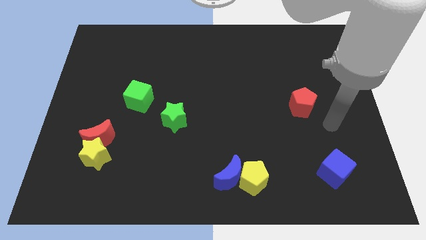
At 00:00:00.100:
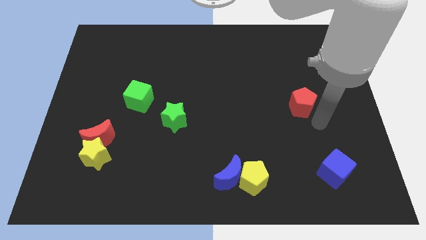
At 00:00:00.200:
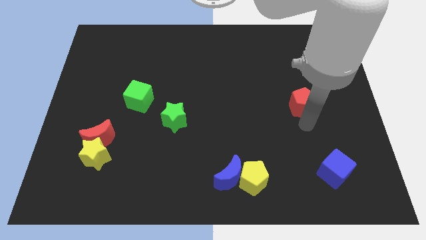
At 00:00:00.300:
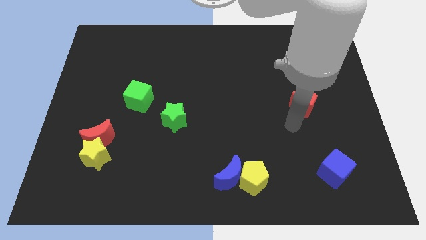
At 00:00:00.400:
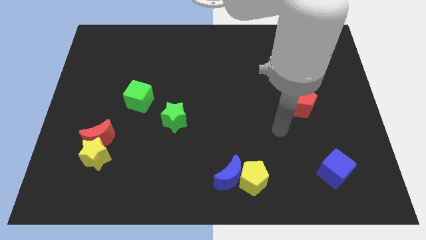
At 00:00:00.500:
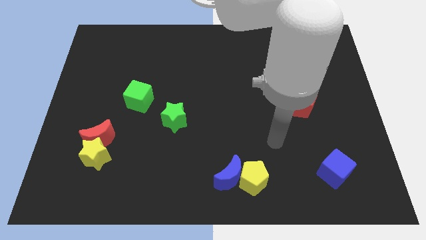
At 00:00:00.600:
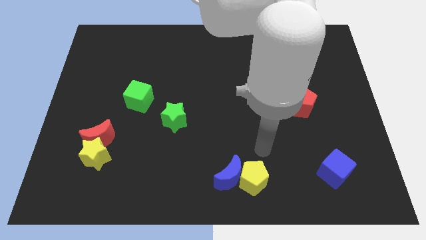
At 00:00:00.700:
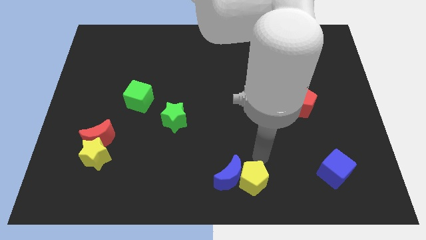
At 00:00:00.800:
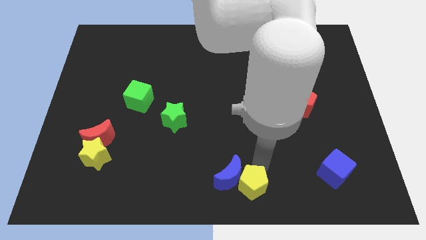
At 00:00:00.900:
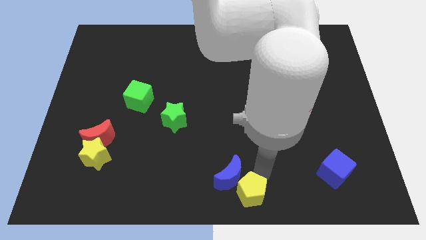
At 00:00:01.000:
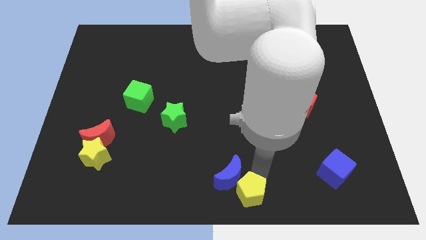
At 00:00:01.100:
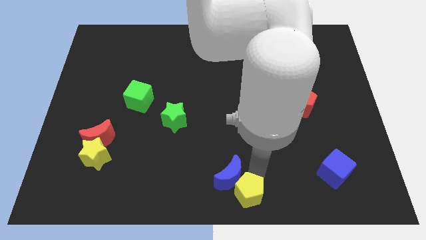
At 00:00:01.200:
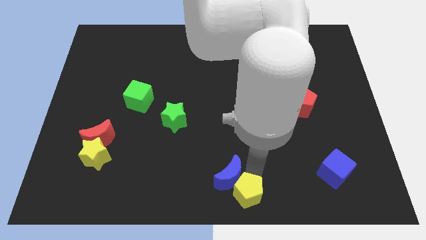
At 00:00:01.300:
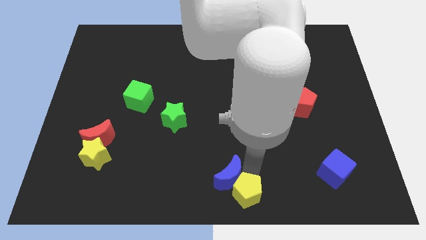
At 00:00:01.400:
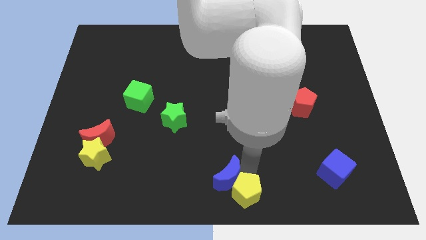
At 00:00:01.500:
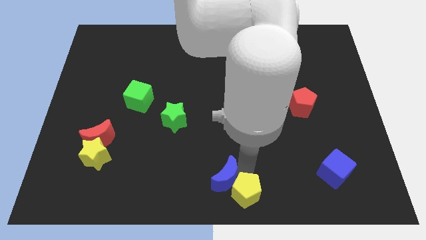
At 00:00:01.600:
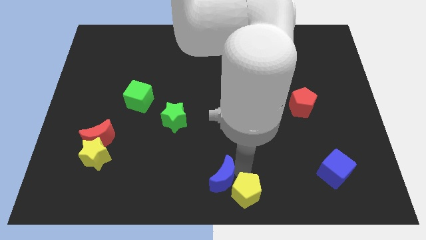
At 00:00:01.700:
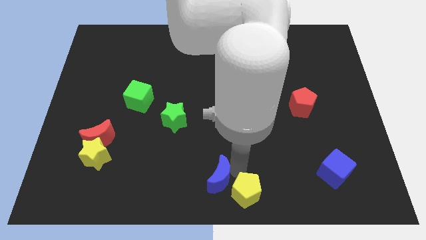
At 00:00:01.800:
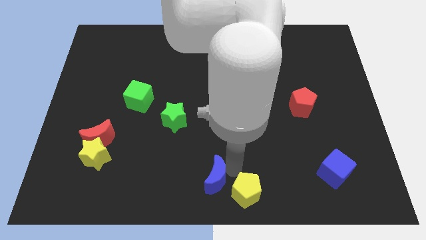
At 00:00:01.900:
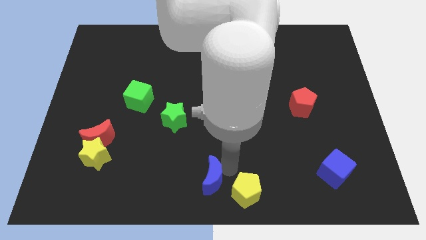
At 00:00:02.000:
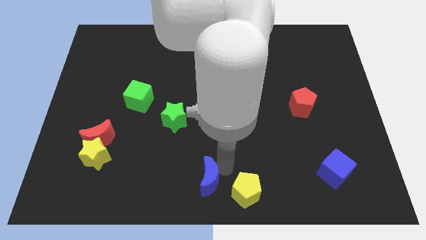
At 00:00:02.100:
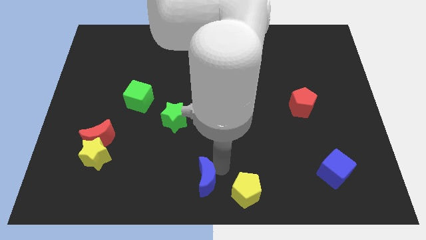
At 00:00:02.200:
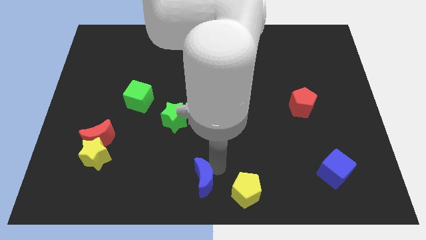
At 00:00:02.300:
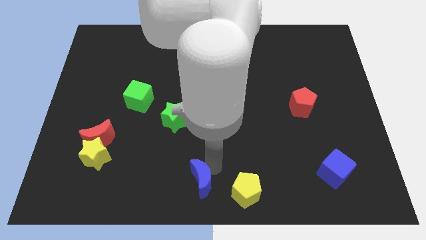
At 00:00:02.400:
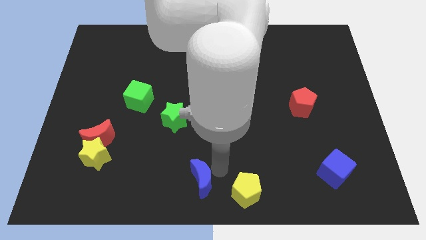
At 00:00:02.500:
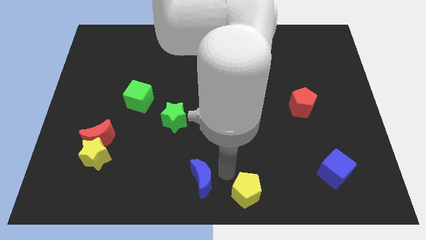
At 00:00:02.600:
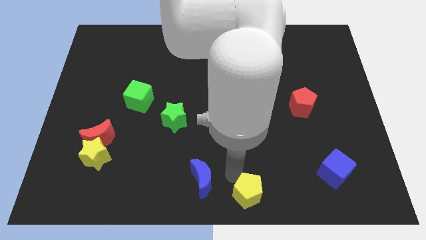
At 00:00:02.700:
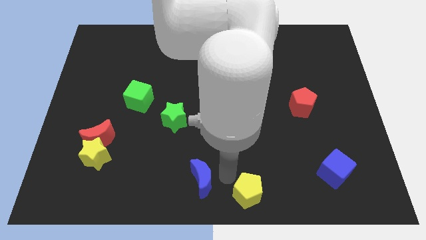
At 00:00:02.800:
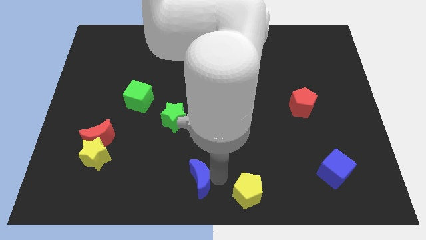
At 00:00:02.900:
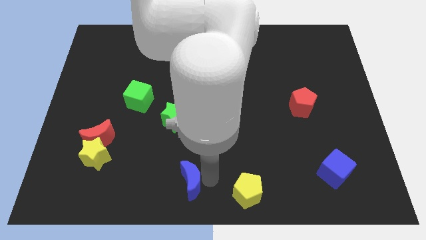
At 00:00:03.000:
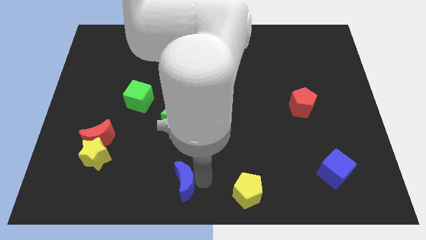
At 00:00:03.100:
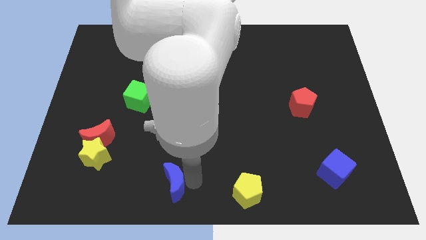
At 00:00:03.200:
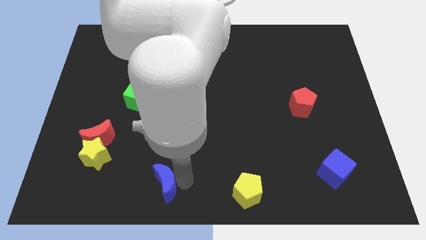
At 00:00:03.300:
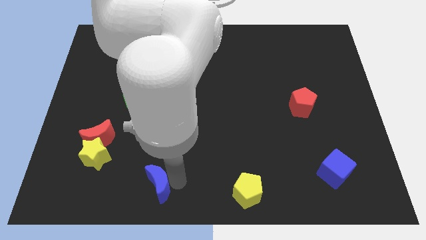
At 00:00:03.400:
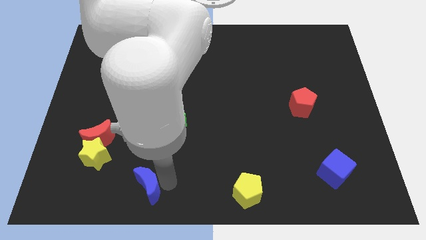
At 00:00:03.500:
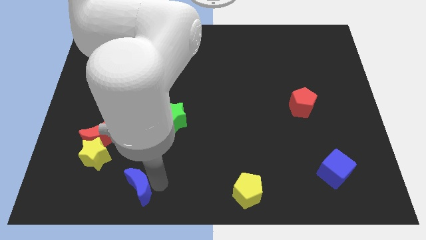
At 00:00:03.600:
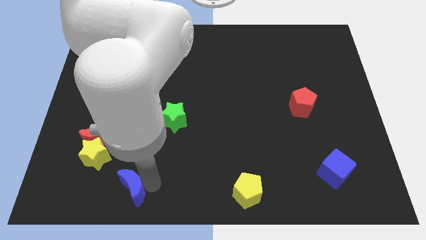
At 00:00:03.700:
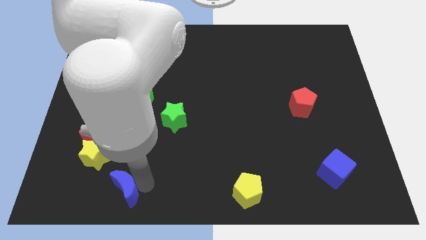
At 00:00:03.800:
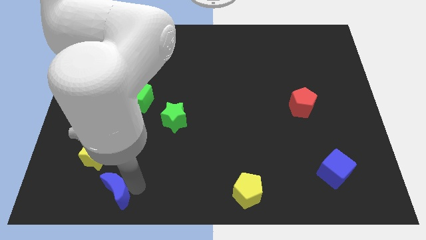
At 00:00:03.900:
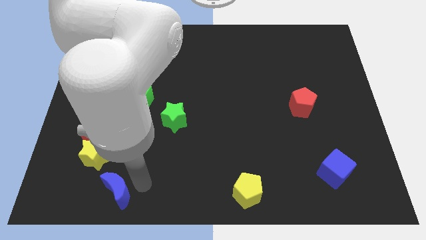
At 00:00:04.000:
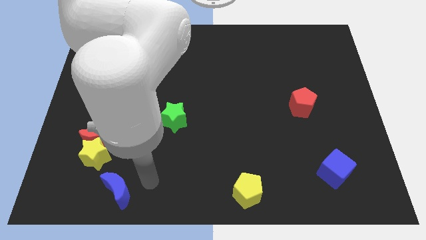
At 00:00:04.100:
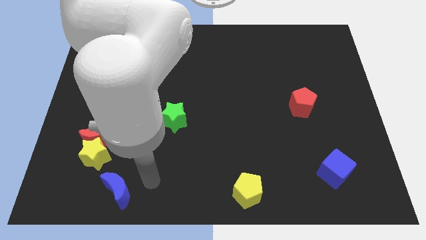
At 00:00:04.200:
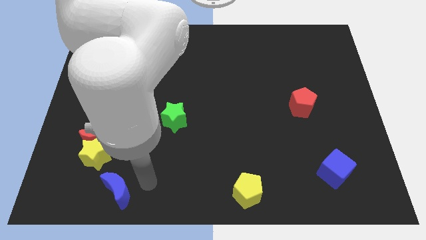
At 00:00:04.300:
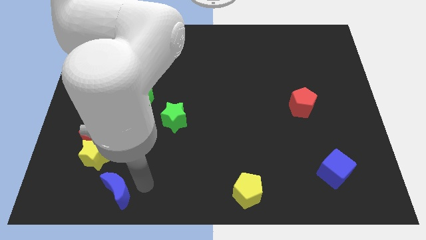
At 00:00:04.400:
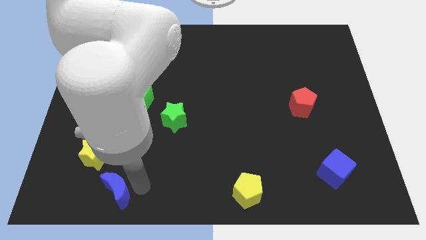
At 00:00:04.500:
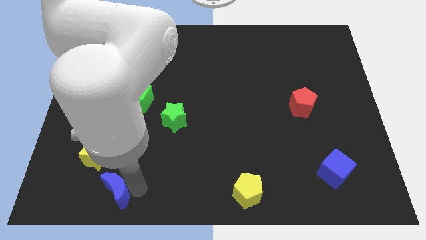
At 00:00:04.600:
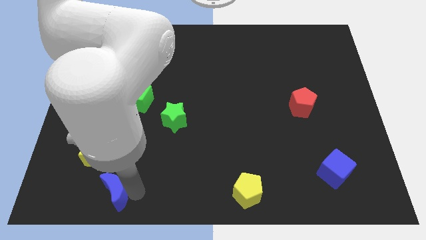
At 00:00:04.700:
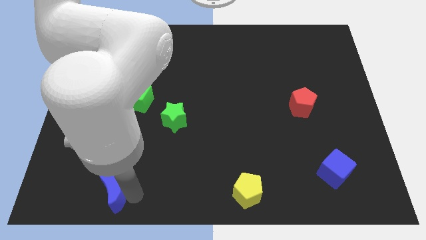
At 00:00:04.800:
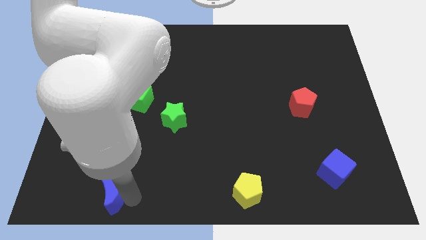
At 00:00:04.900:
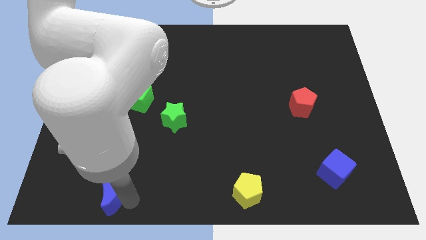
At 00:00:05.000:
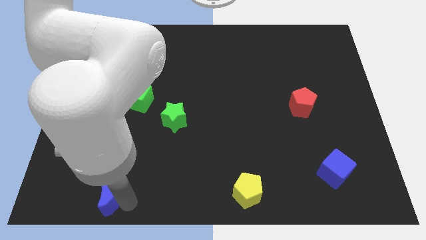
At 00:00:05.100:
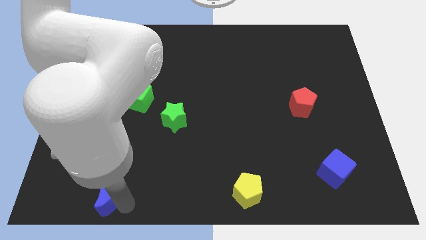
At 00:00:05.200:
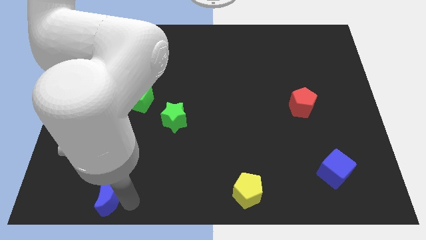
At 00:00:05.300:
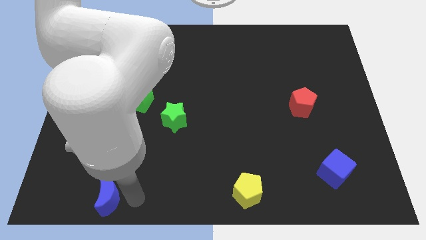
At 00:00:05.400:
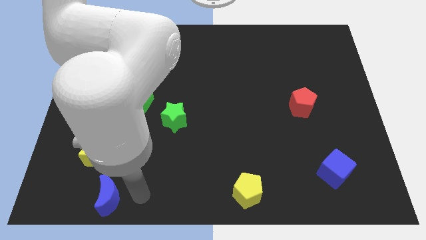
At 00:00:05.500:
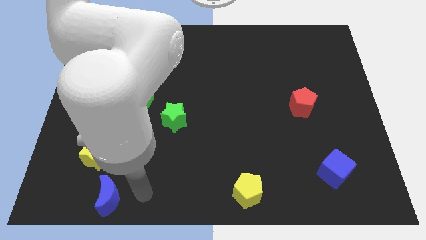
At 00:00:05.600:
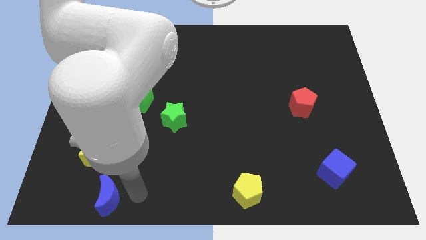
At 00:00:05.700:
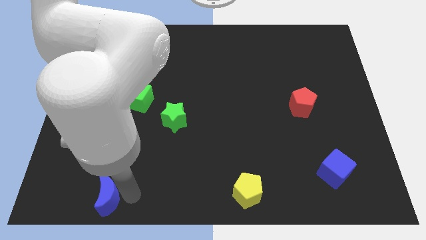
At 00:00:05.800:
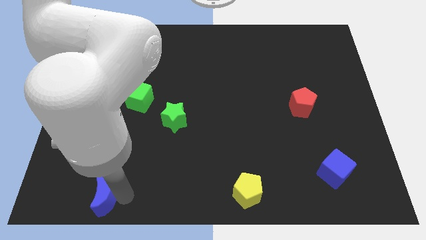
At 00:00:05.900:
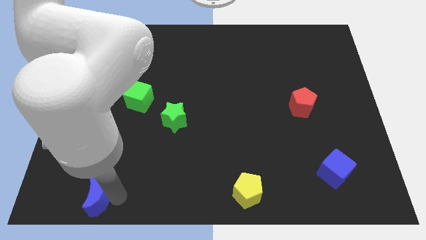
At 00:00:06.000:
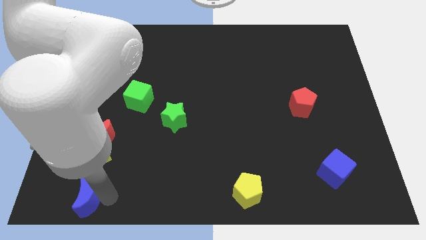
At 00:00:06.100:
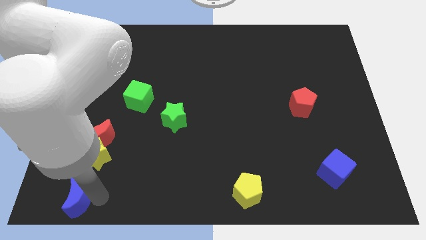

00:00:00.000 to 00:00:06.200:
slide the blue moon to the lower left corner

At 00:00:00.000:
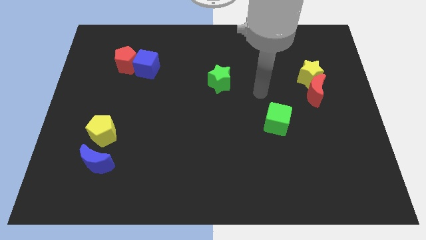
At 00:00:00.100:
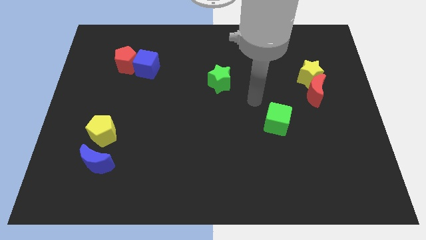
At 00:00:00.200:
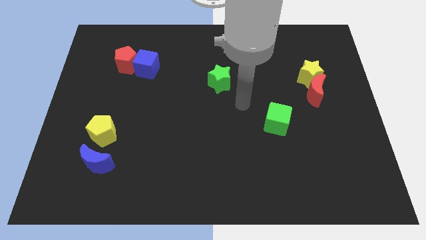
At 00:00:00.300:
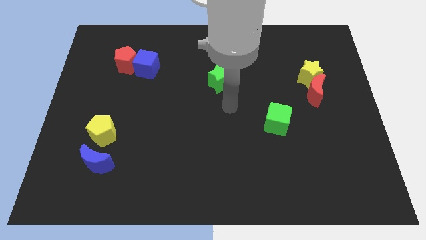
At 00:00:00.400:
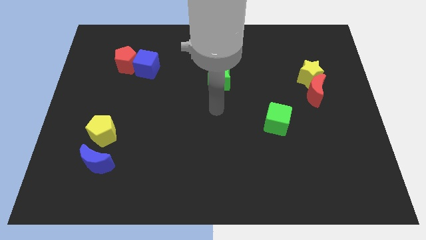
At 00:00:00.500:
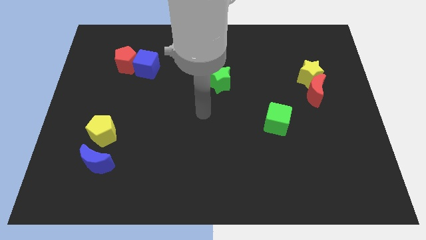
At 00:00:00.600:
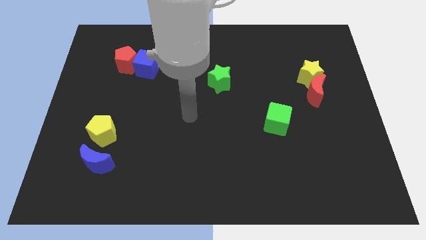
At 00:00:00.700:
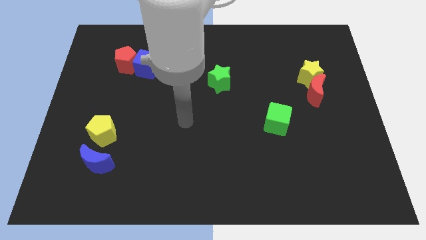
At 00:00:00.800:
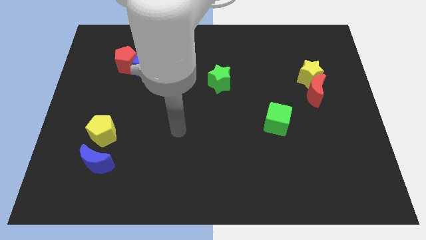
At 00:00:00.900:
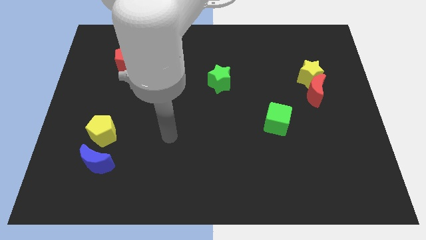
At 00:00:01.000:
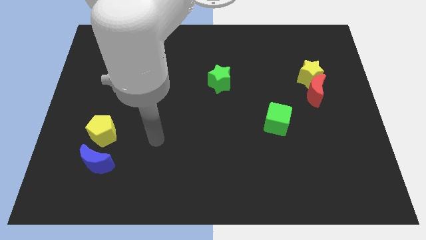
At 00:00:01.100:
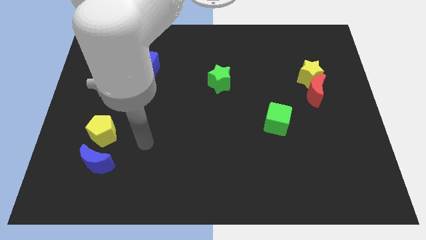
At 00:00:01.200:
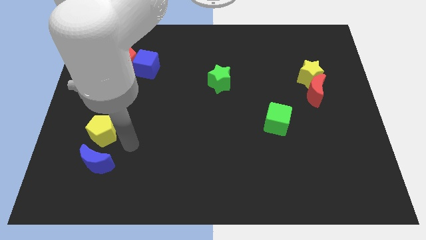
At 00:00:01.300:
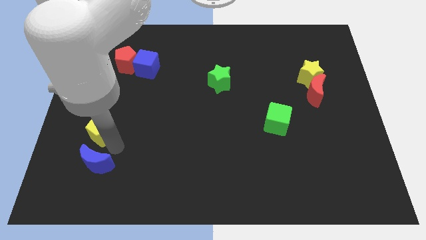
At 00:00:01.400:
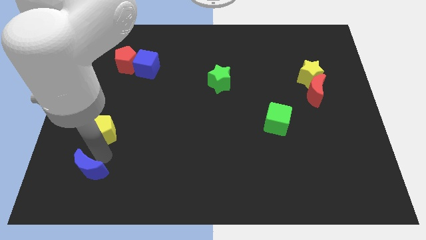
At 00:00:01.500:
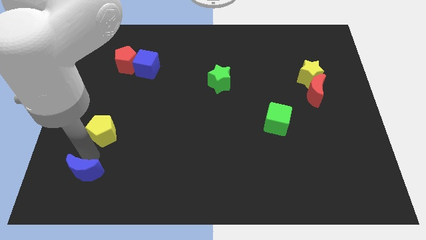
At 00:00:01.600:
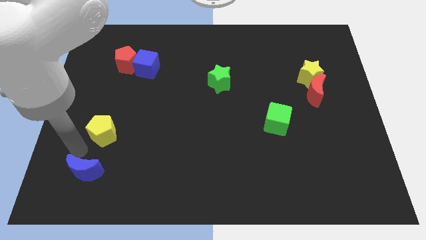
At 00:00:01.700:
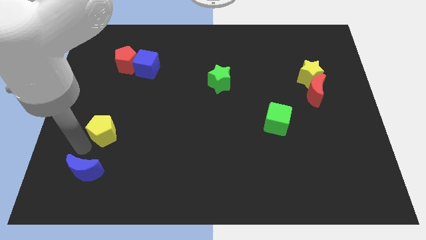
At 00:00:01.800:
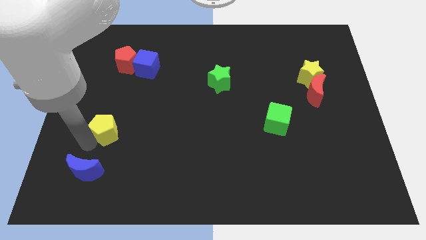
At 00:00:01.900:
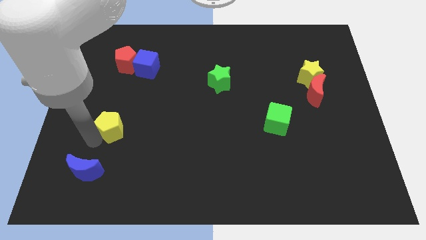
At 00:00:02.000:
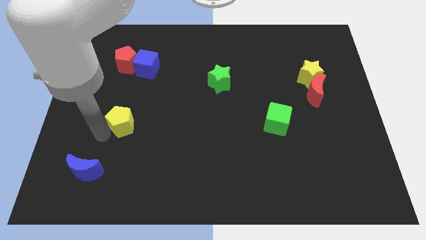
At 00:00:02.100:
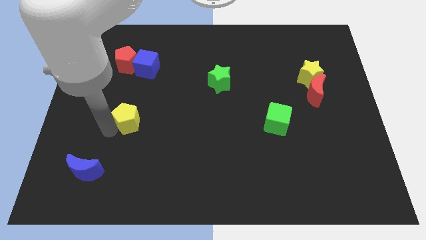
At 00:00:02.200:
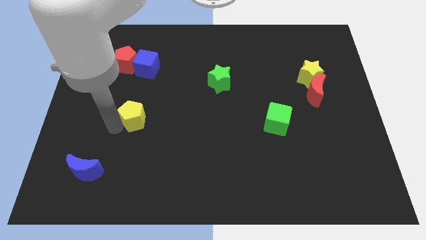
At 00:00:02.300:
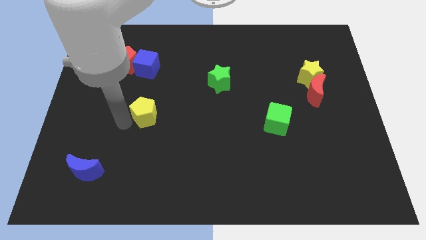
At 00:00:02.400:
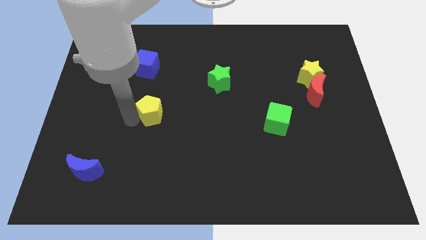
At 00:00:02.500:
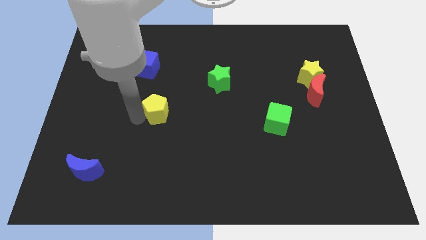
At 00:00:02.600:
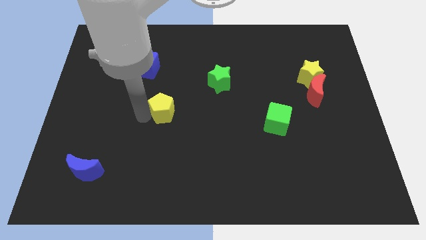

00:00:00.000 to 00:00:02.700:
slide the yellow pentagon to the center
